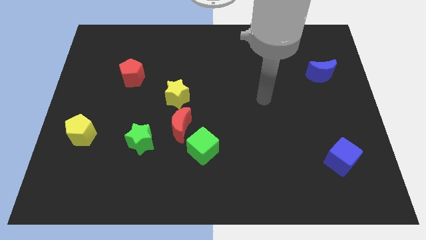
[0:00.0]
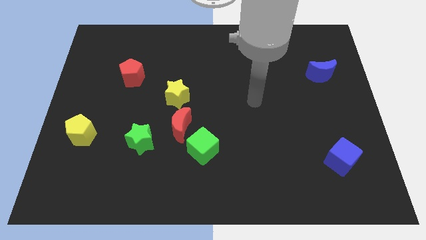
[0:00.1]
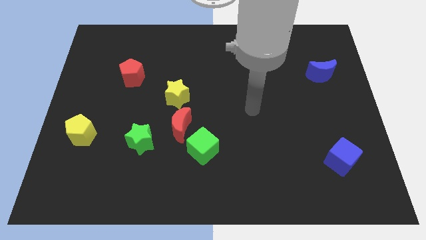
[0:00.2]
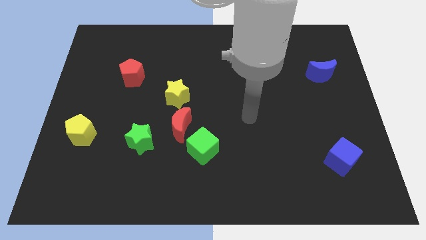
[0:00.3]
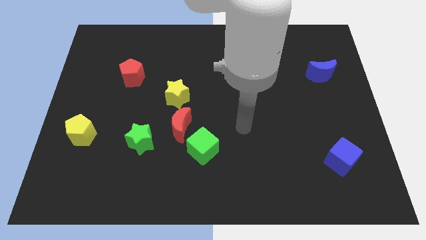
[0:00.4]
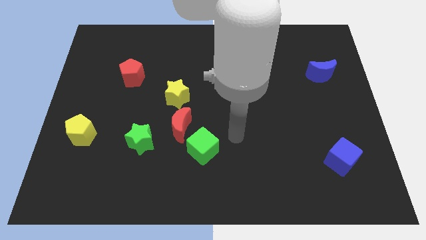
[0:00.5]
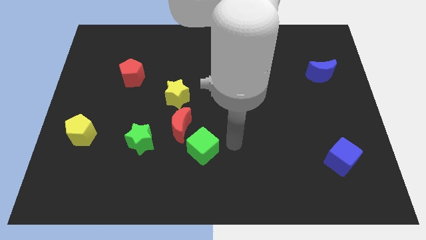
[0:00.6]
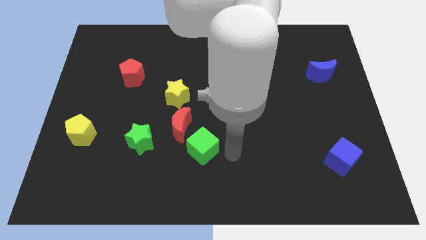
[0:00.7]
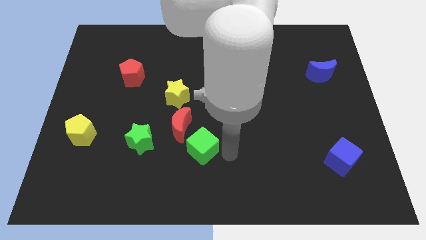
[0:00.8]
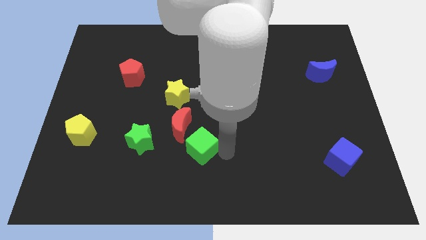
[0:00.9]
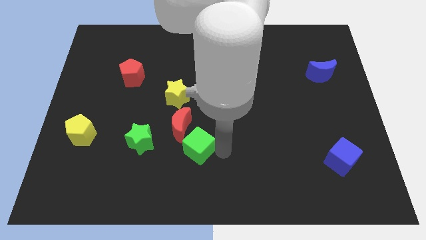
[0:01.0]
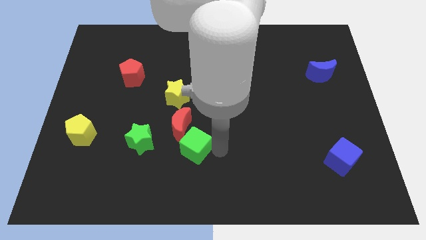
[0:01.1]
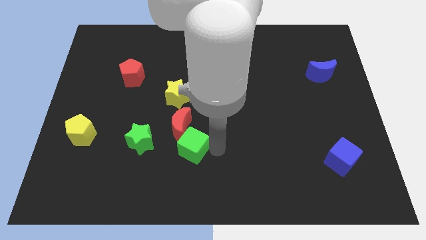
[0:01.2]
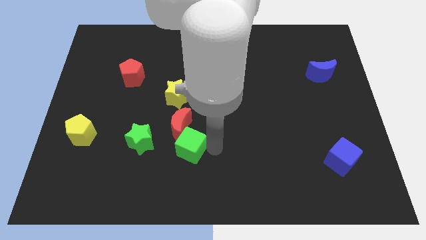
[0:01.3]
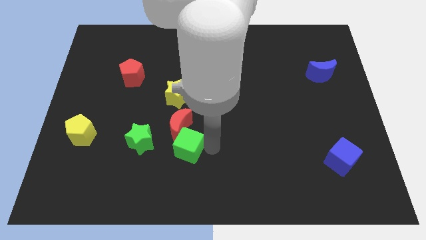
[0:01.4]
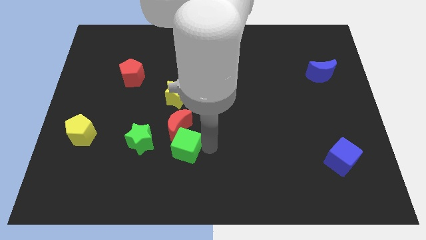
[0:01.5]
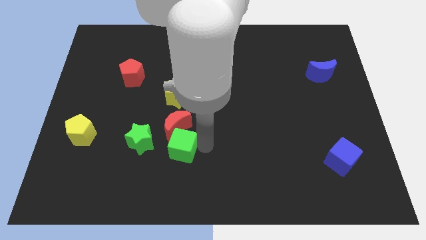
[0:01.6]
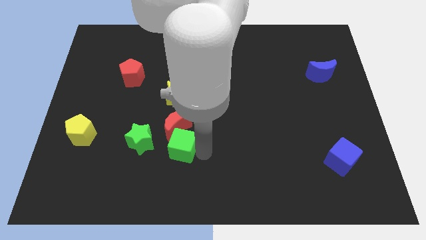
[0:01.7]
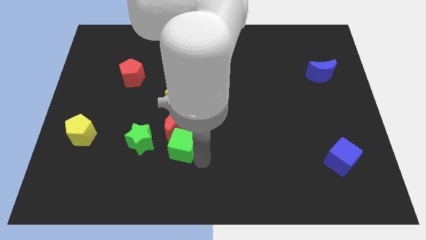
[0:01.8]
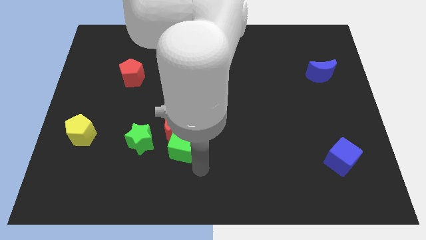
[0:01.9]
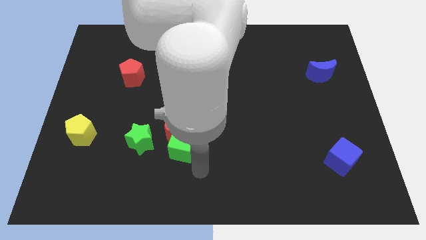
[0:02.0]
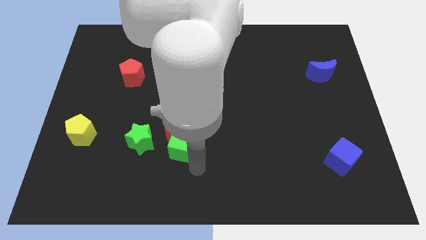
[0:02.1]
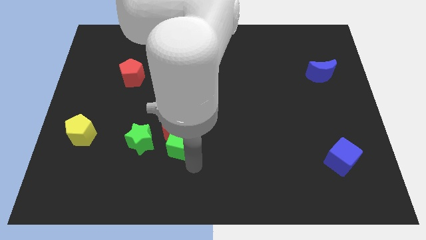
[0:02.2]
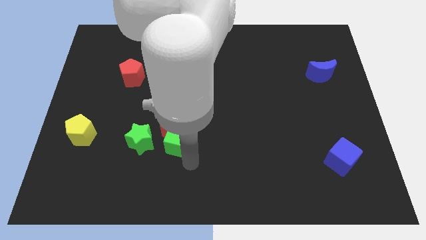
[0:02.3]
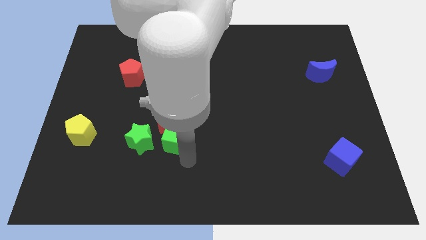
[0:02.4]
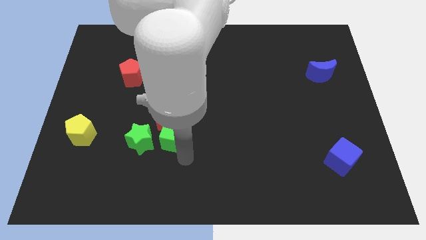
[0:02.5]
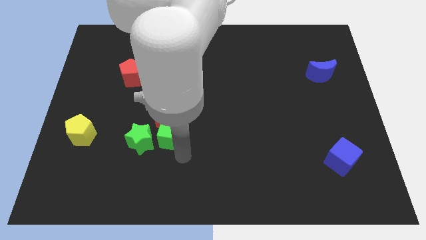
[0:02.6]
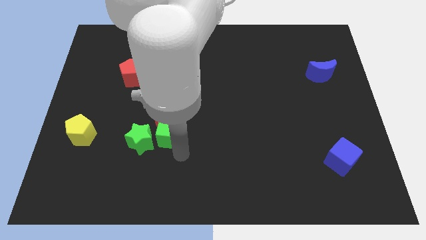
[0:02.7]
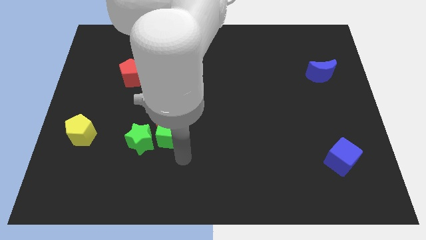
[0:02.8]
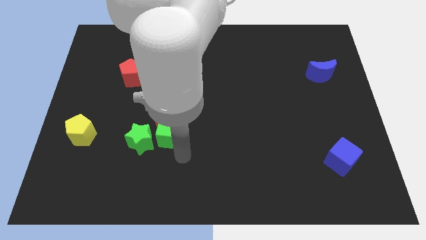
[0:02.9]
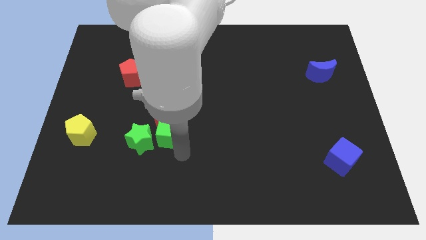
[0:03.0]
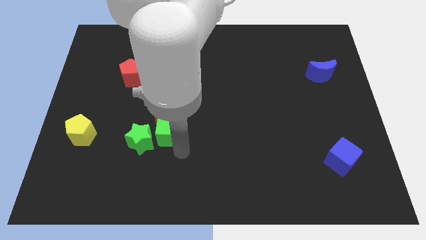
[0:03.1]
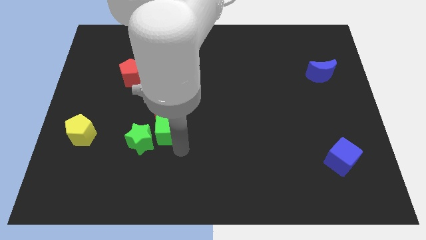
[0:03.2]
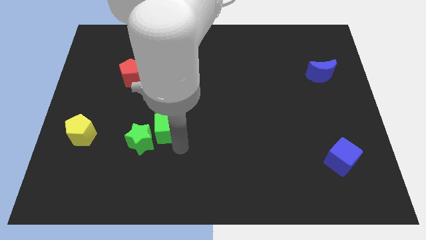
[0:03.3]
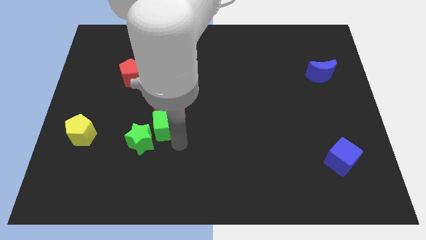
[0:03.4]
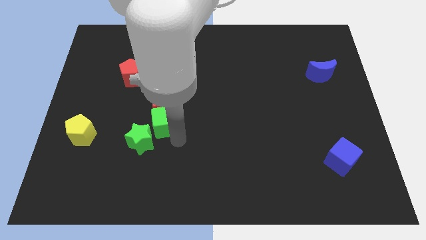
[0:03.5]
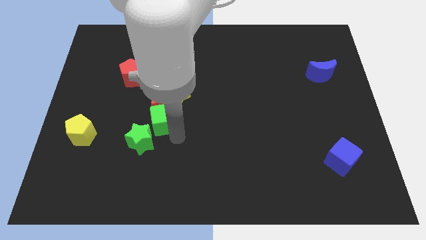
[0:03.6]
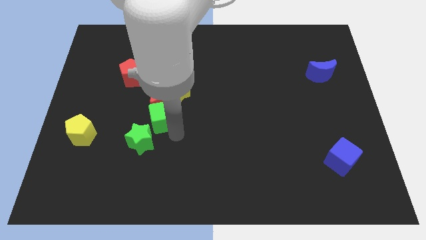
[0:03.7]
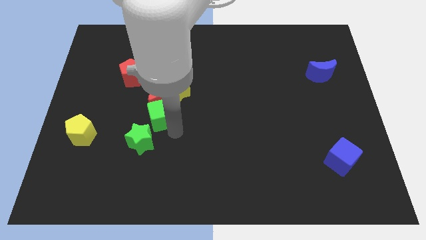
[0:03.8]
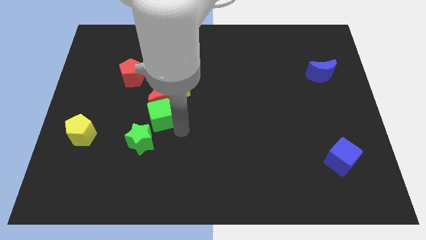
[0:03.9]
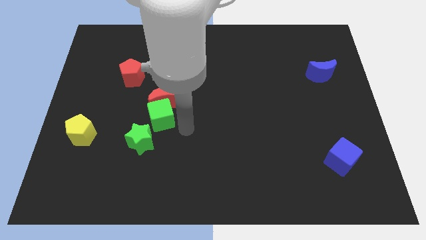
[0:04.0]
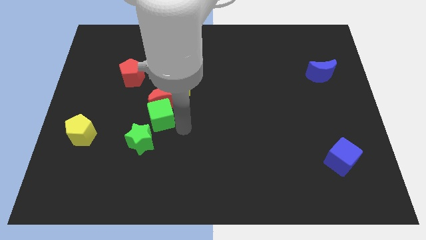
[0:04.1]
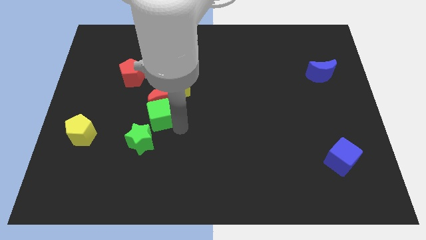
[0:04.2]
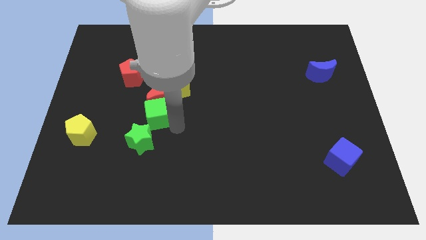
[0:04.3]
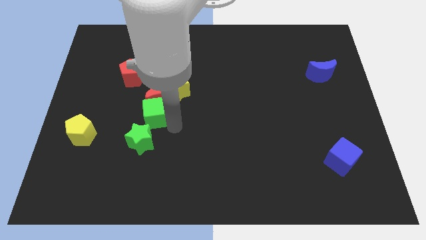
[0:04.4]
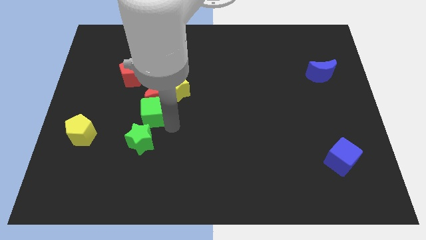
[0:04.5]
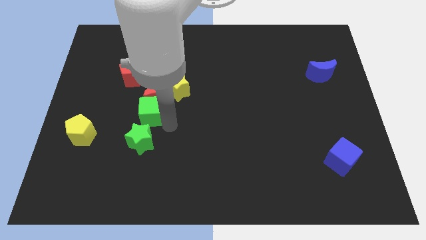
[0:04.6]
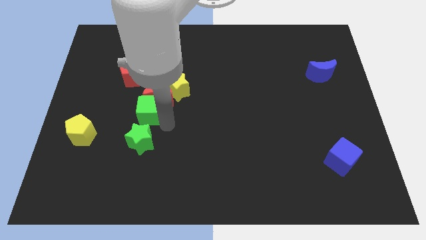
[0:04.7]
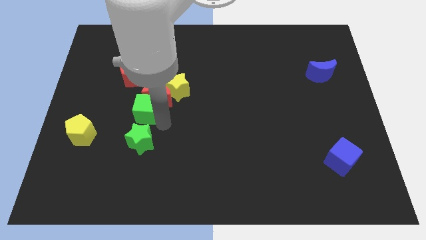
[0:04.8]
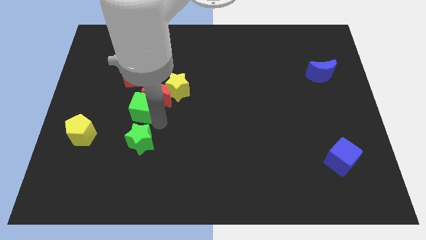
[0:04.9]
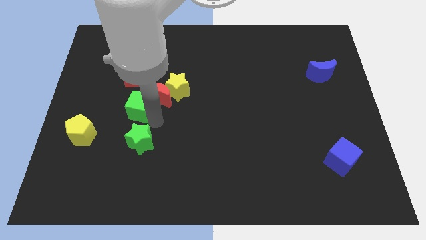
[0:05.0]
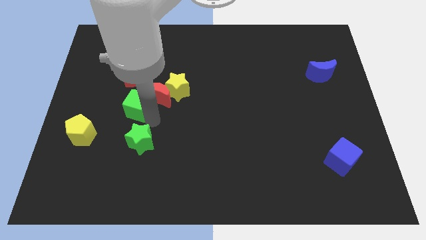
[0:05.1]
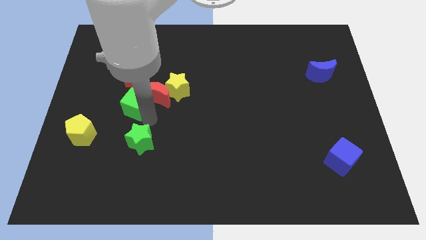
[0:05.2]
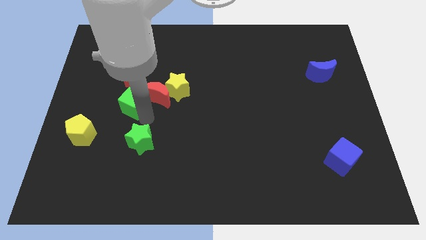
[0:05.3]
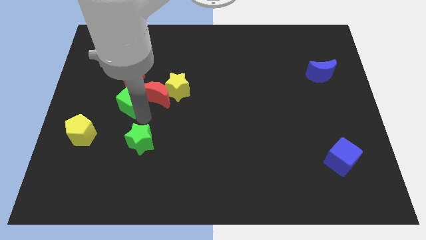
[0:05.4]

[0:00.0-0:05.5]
push the green cube diagonally up and left

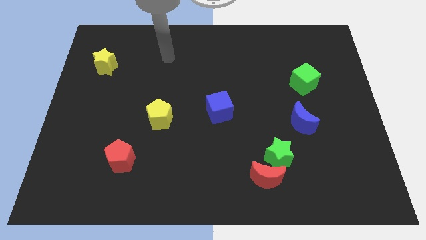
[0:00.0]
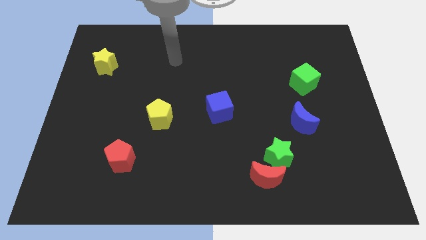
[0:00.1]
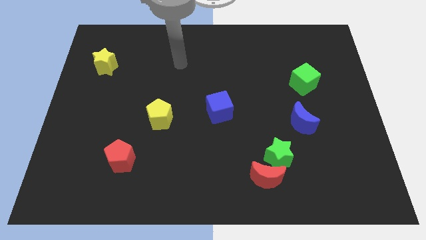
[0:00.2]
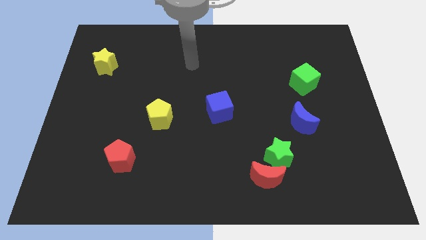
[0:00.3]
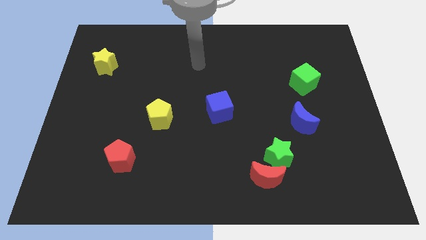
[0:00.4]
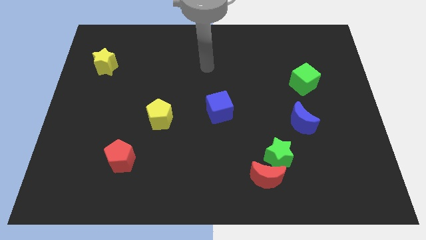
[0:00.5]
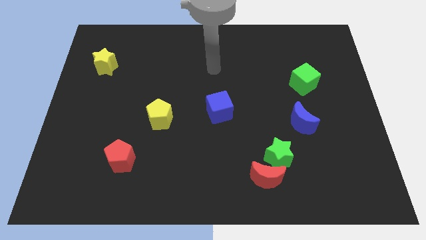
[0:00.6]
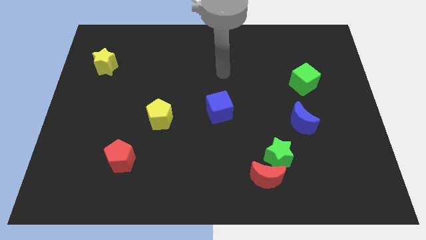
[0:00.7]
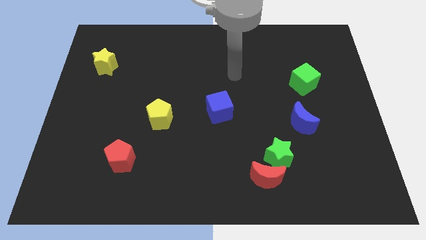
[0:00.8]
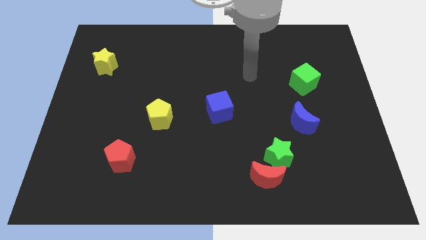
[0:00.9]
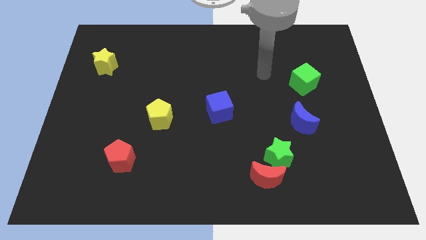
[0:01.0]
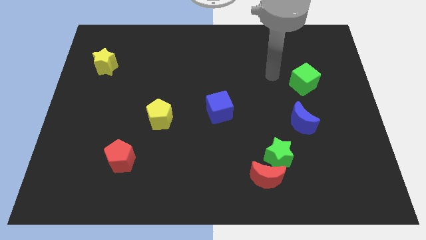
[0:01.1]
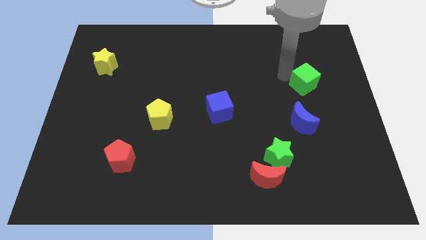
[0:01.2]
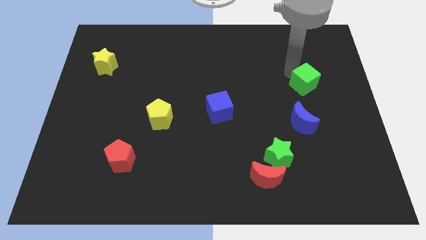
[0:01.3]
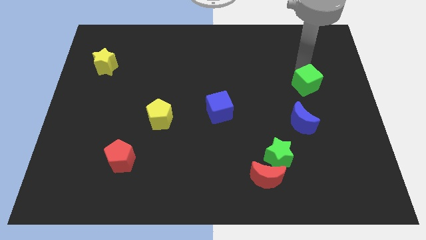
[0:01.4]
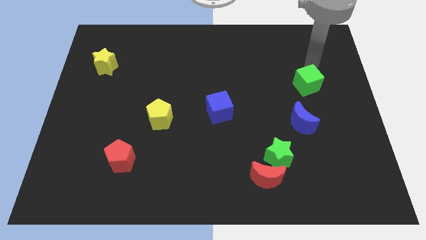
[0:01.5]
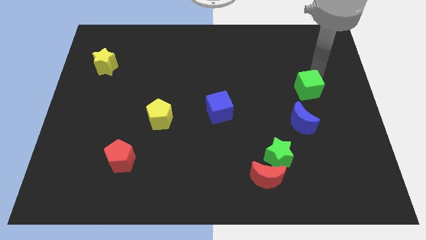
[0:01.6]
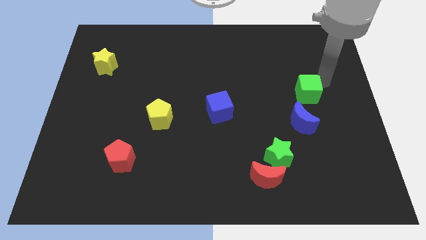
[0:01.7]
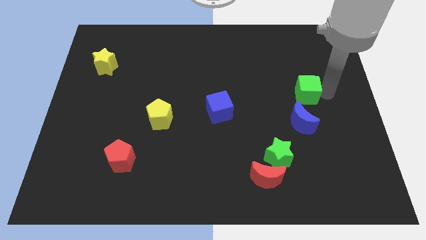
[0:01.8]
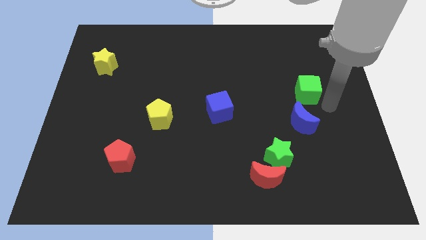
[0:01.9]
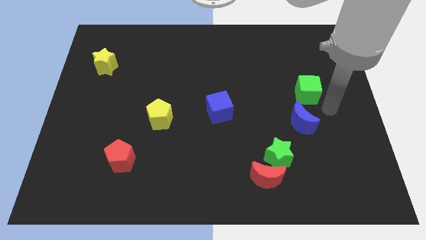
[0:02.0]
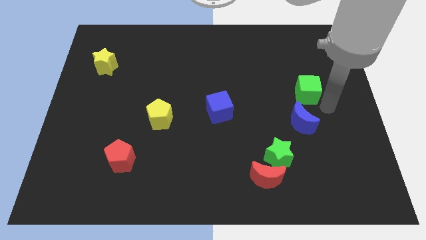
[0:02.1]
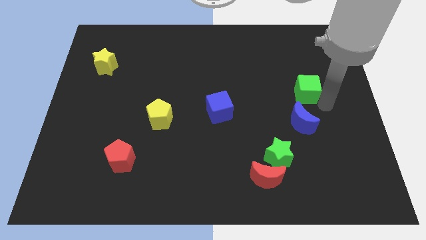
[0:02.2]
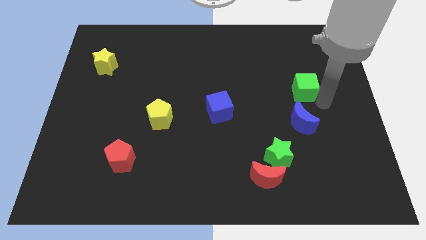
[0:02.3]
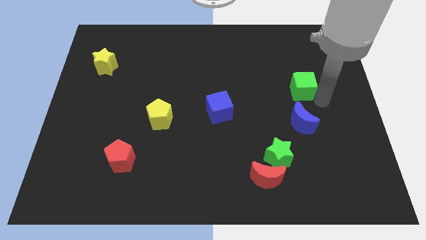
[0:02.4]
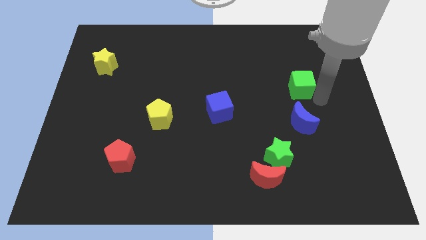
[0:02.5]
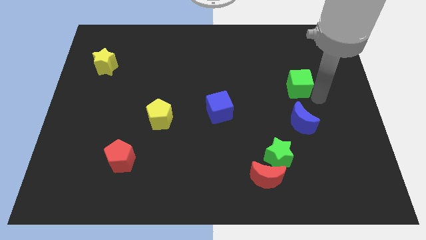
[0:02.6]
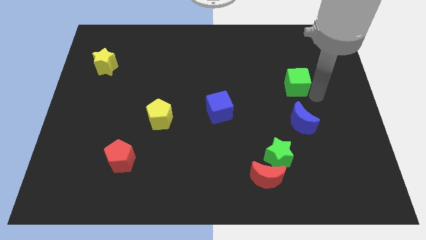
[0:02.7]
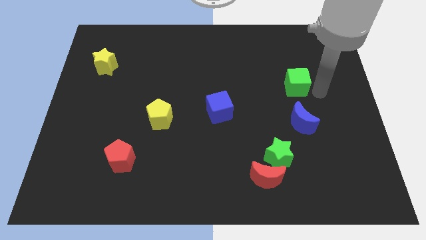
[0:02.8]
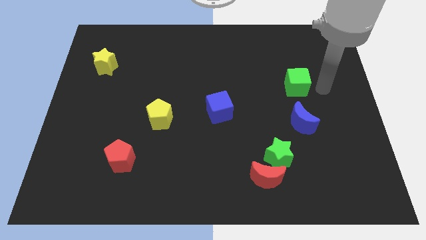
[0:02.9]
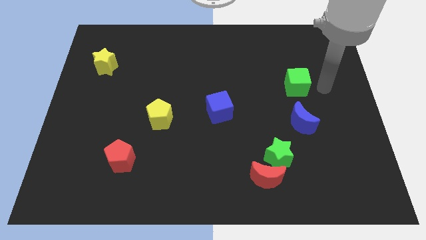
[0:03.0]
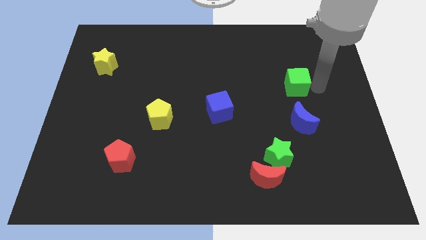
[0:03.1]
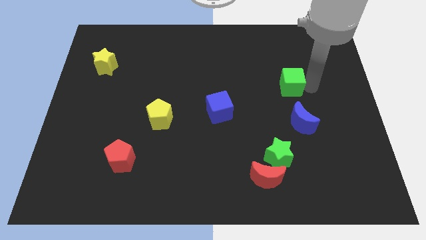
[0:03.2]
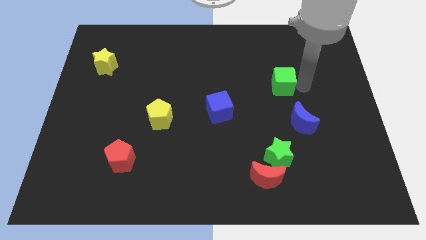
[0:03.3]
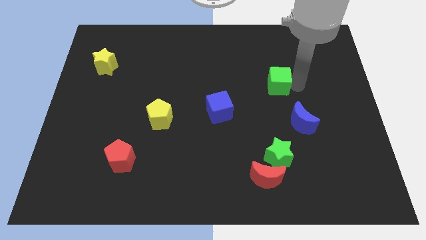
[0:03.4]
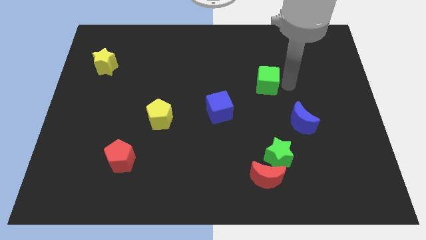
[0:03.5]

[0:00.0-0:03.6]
slightly move the green cube to the left
